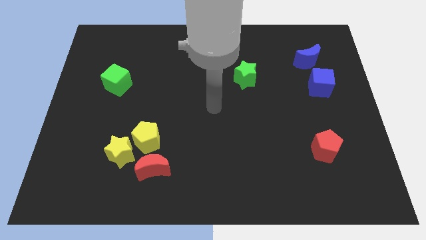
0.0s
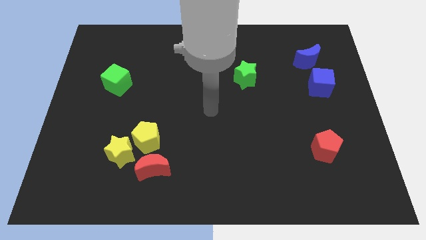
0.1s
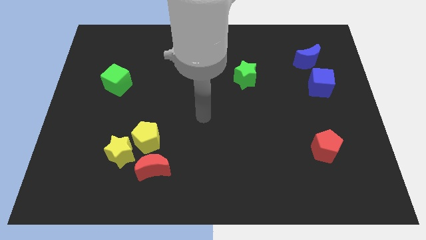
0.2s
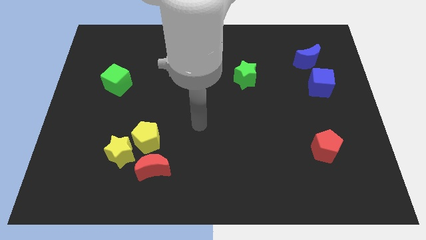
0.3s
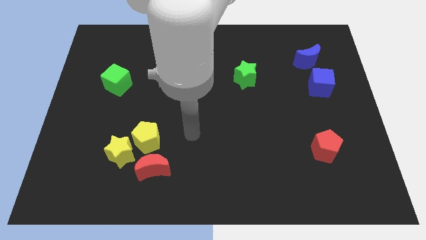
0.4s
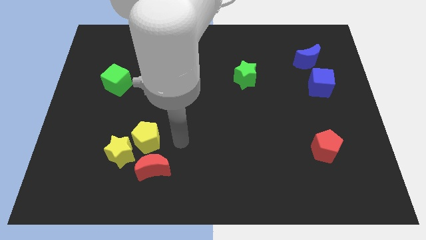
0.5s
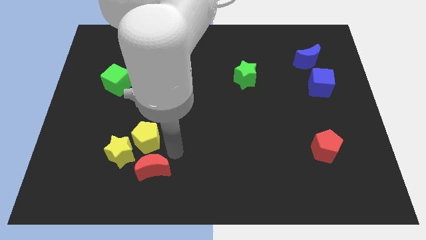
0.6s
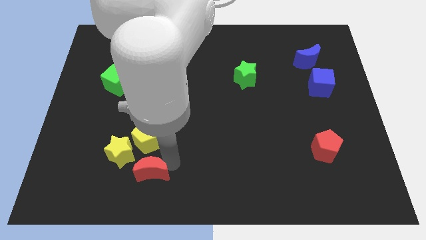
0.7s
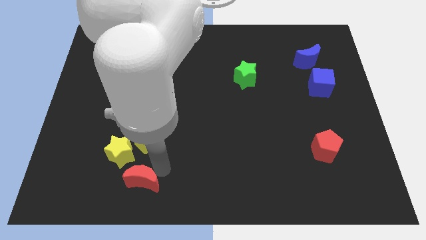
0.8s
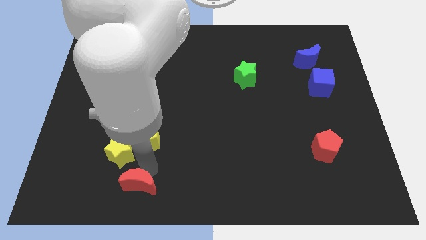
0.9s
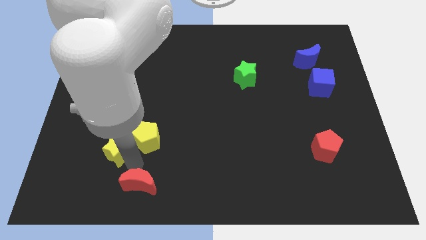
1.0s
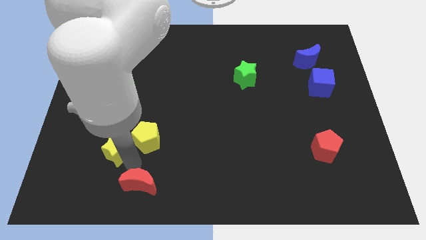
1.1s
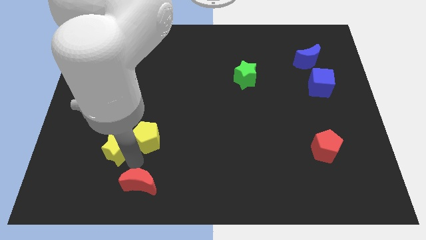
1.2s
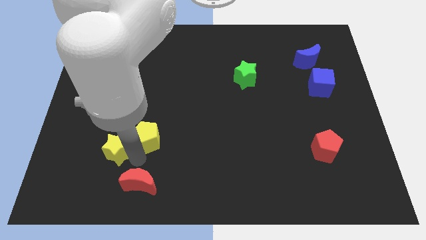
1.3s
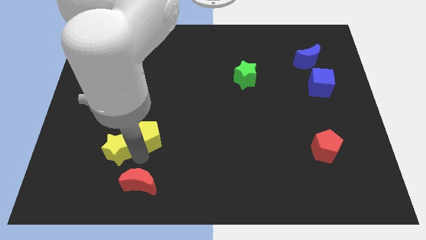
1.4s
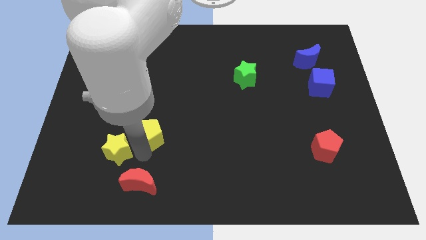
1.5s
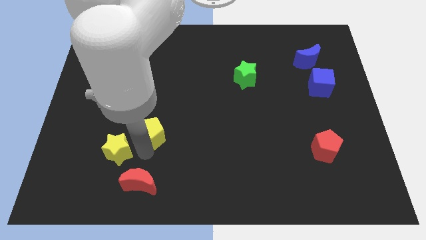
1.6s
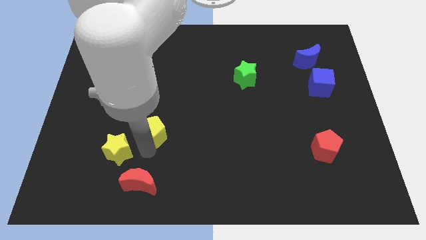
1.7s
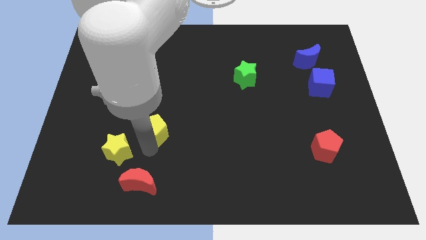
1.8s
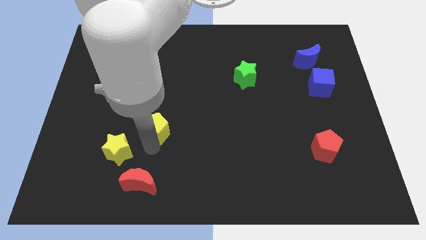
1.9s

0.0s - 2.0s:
pull the yellow pentagon apart from the yellow star and red moon

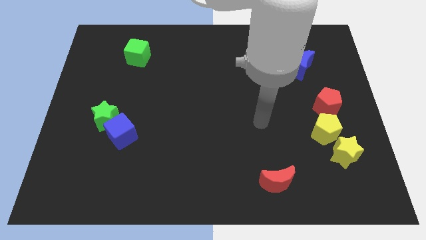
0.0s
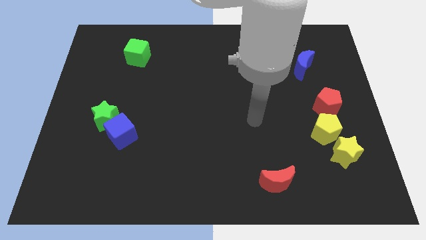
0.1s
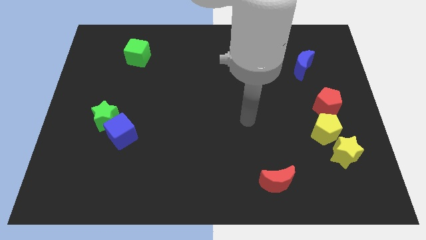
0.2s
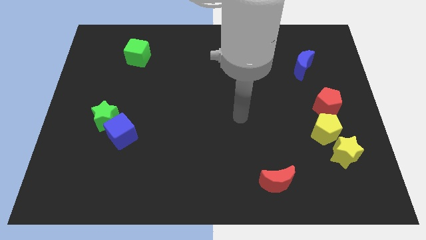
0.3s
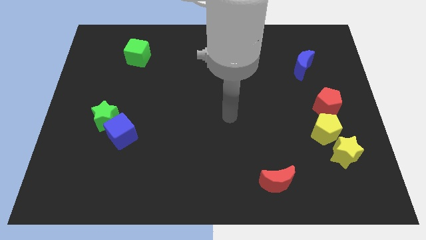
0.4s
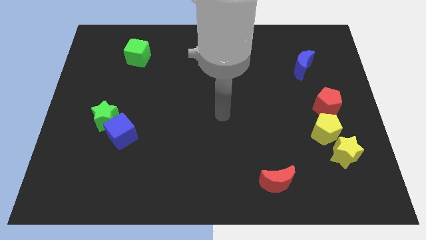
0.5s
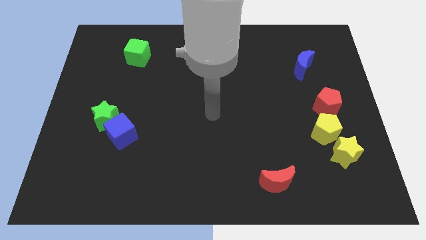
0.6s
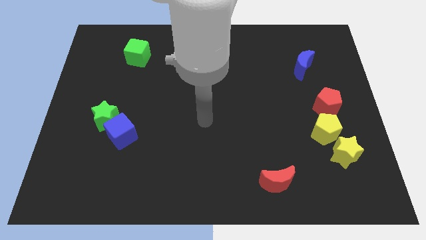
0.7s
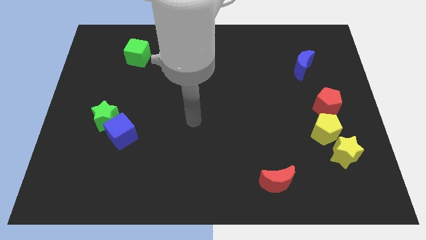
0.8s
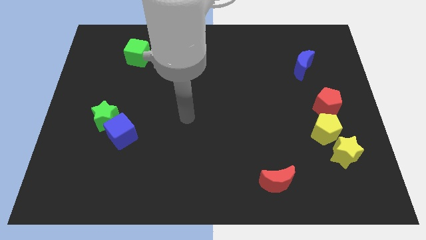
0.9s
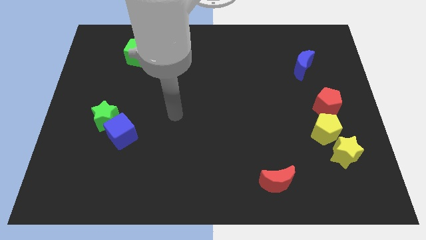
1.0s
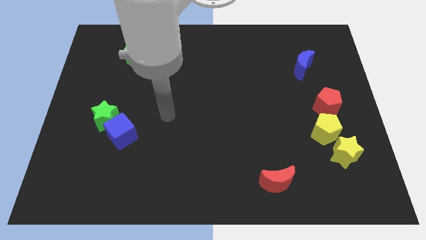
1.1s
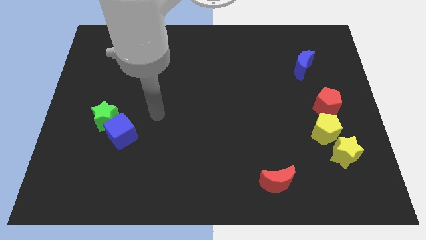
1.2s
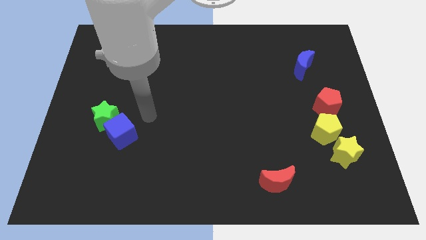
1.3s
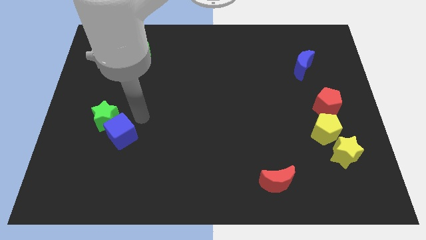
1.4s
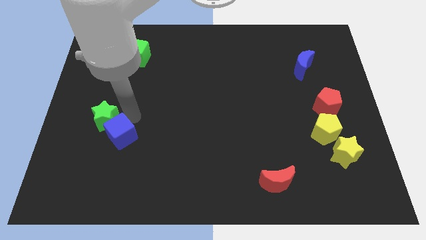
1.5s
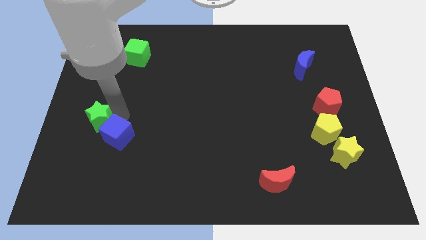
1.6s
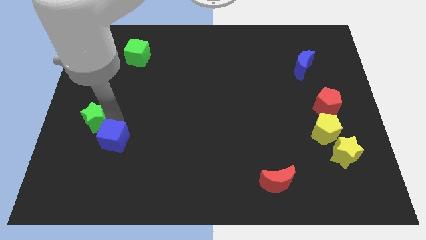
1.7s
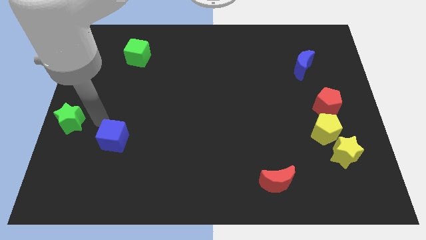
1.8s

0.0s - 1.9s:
separate the blue cube from the green star

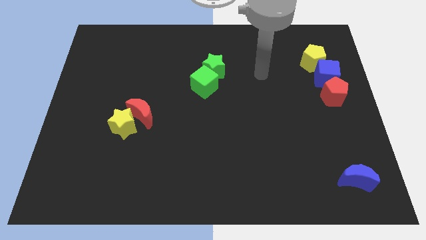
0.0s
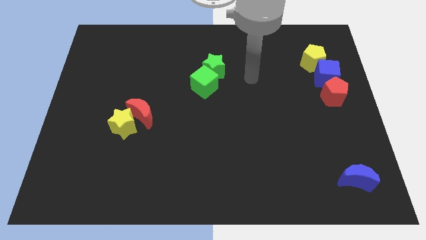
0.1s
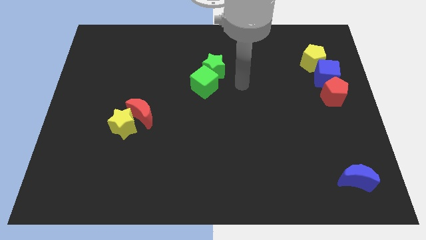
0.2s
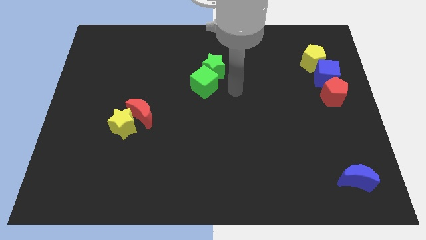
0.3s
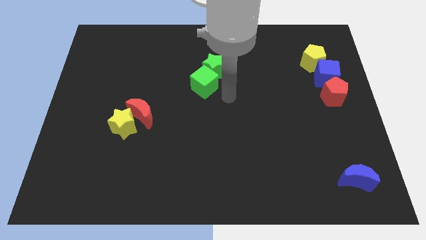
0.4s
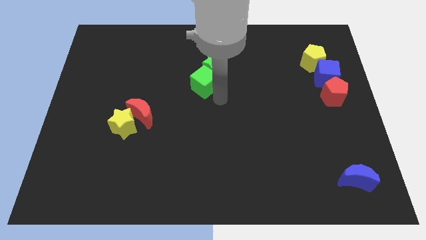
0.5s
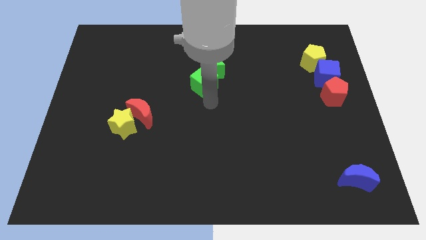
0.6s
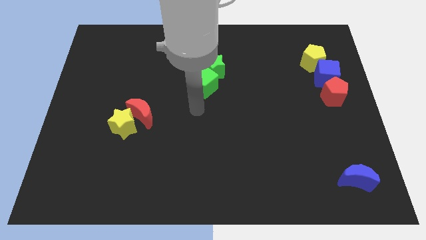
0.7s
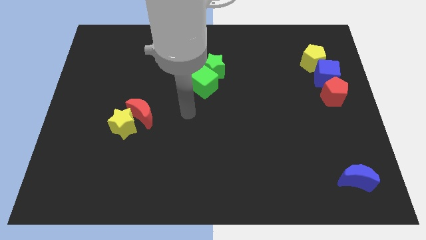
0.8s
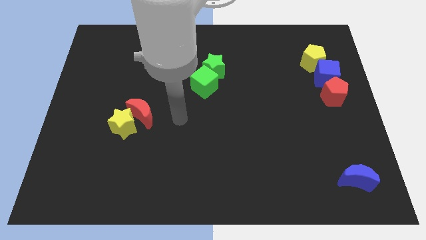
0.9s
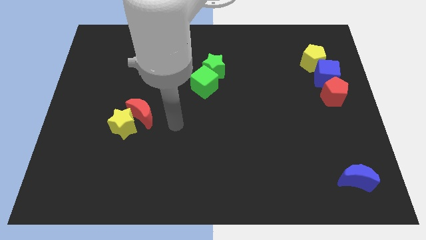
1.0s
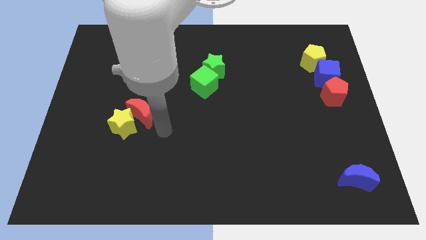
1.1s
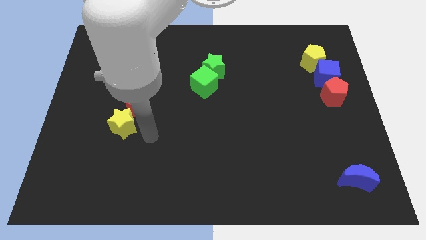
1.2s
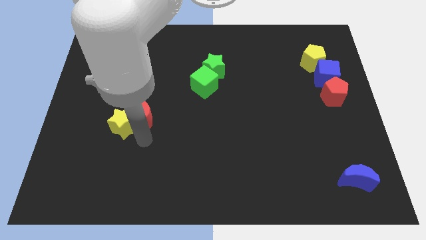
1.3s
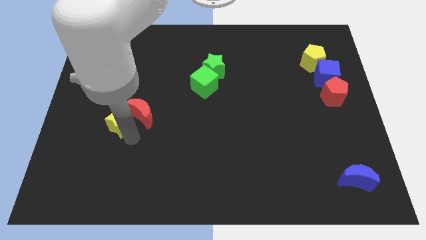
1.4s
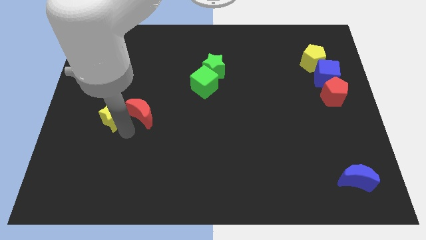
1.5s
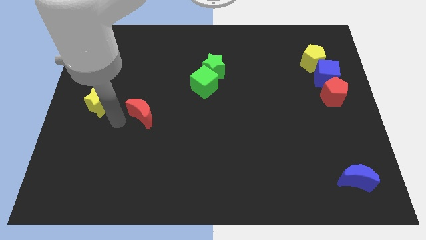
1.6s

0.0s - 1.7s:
separate the red moon from the yellow star

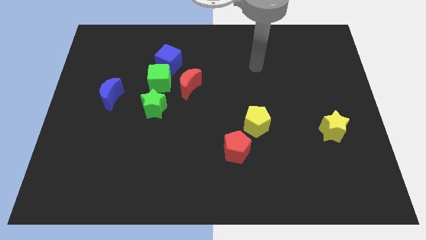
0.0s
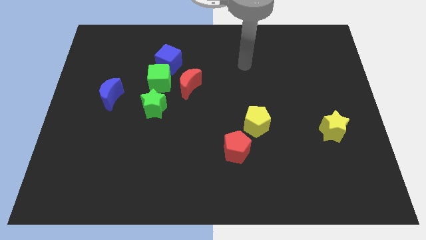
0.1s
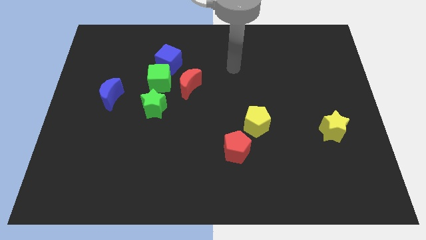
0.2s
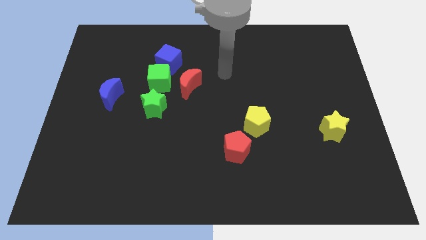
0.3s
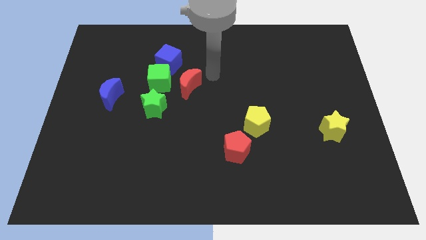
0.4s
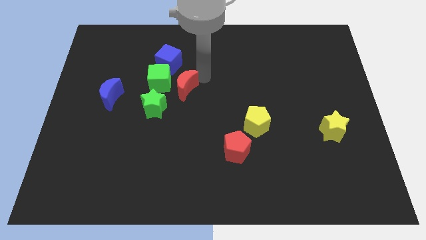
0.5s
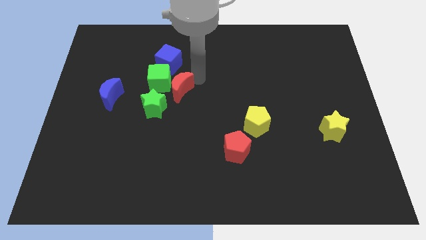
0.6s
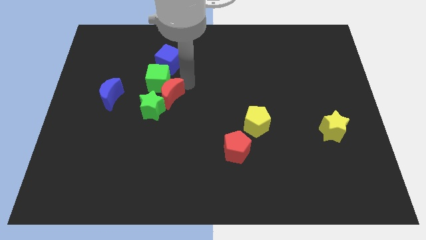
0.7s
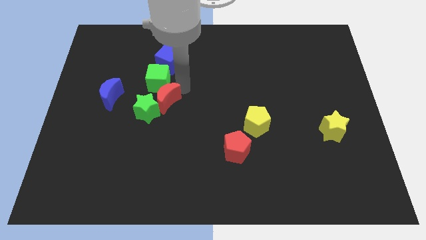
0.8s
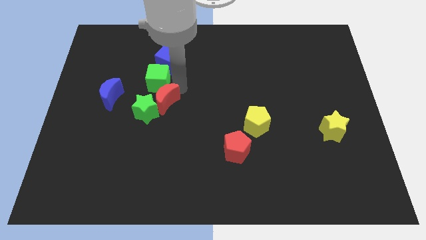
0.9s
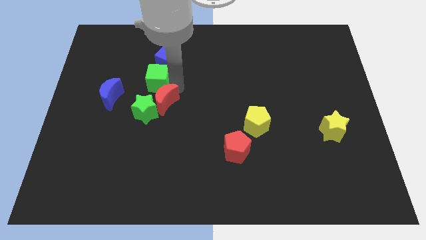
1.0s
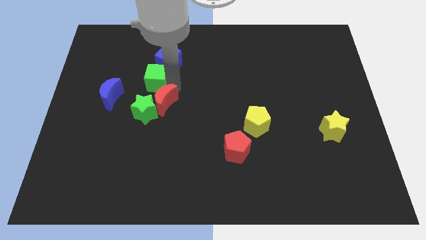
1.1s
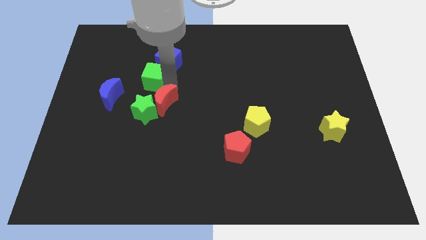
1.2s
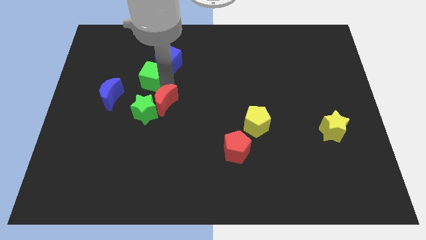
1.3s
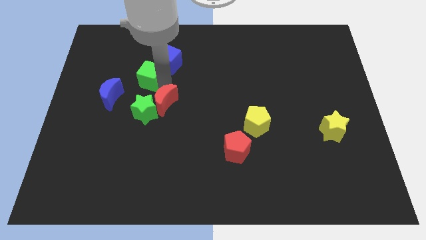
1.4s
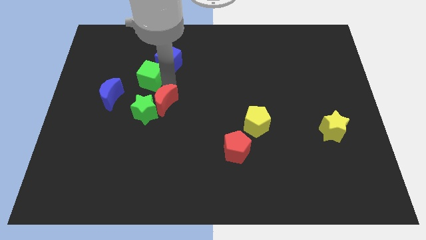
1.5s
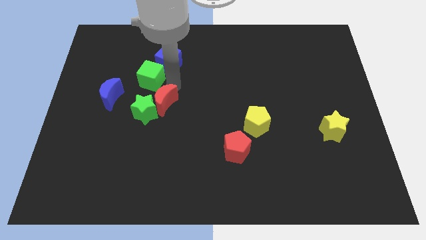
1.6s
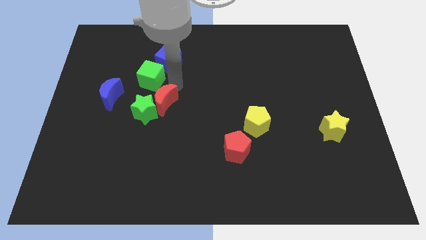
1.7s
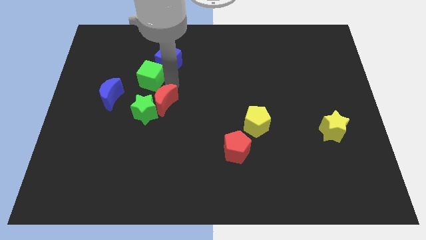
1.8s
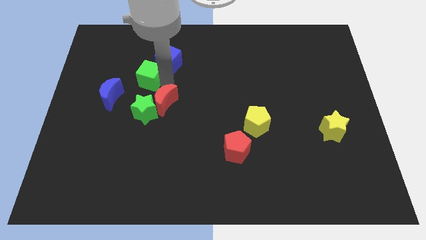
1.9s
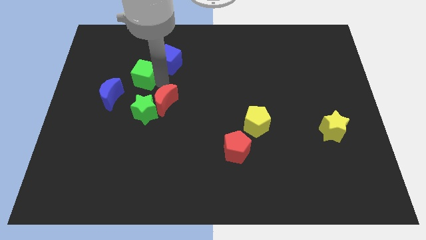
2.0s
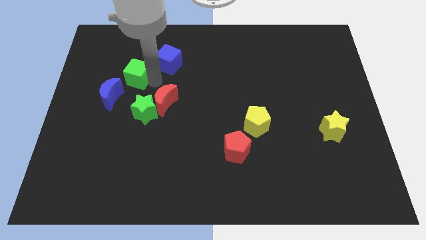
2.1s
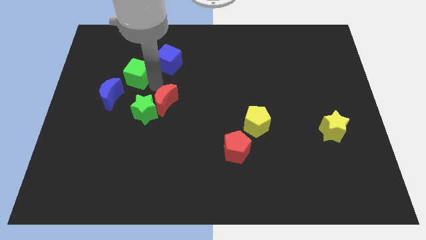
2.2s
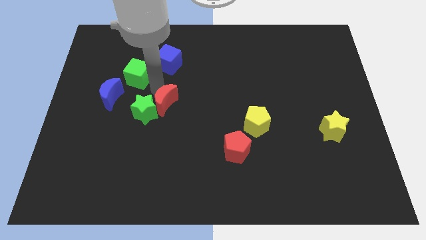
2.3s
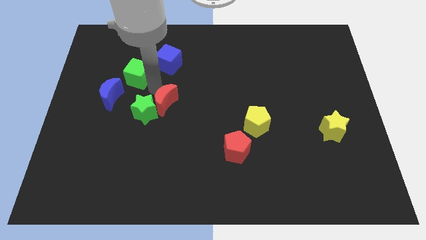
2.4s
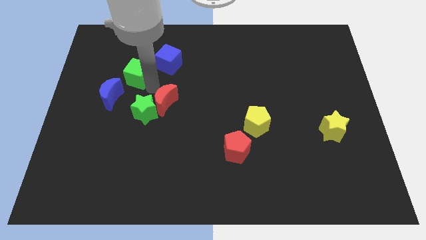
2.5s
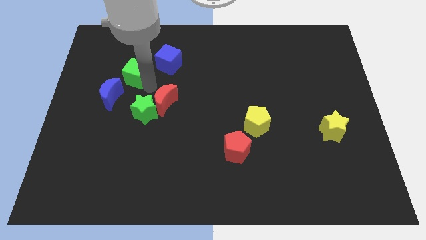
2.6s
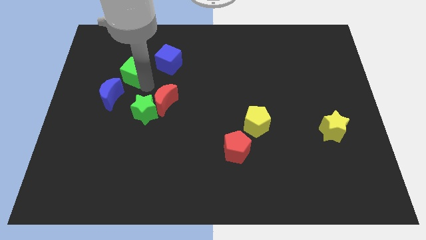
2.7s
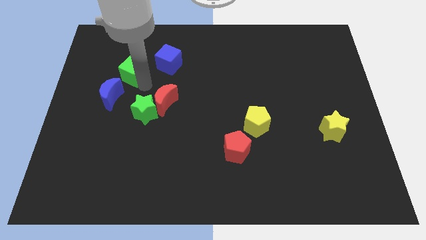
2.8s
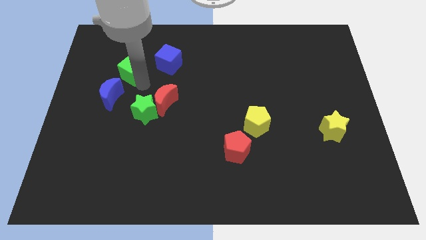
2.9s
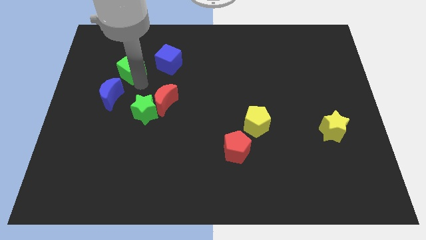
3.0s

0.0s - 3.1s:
pull the green cube apart from the group of blocks

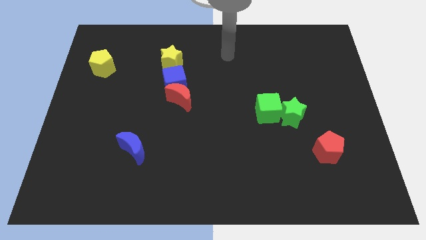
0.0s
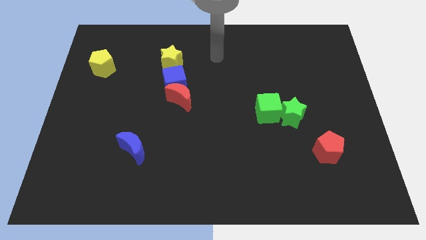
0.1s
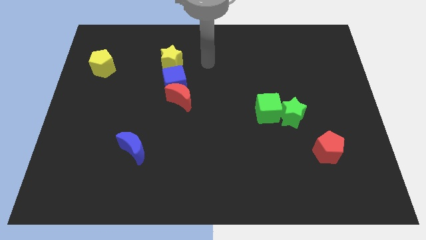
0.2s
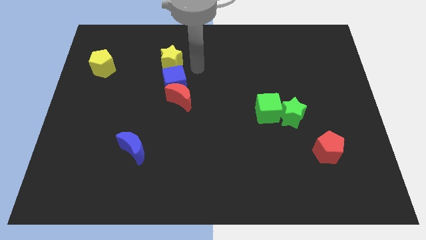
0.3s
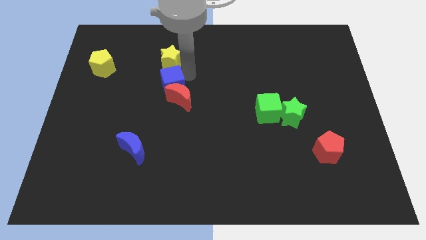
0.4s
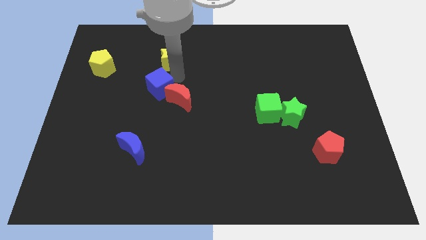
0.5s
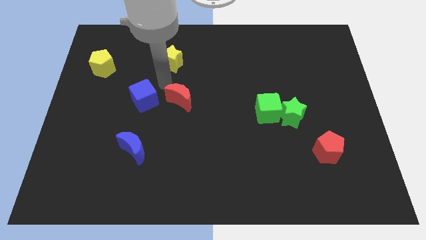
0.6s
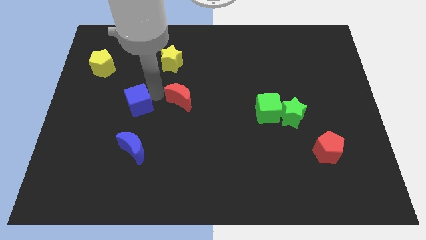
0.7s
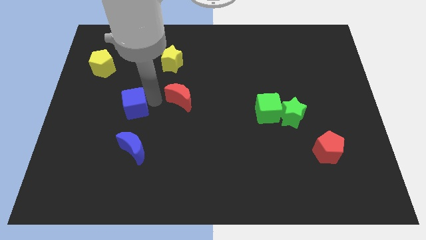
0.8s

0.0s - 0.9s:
separate the red moon from the blue cube
